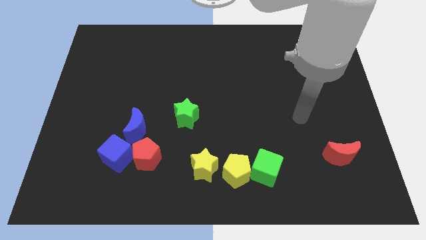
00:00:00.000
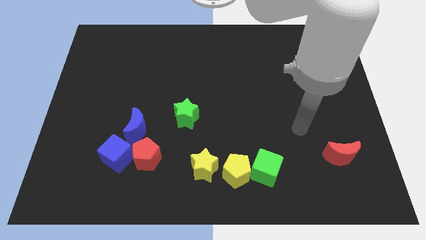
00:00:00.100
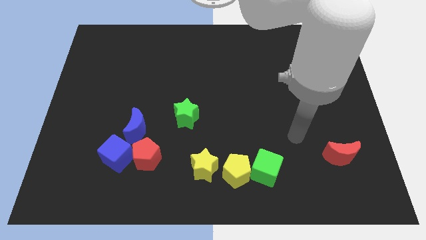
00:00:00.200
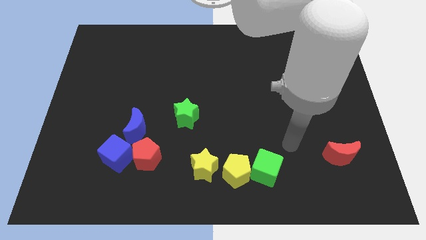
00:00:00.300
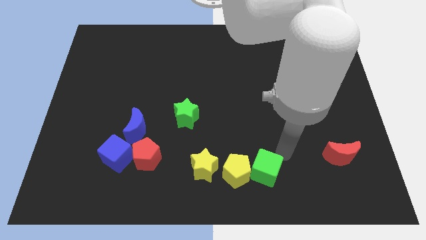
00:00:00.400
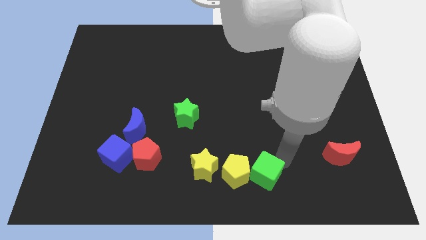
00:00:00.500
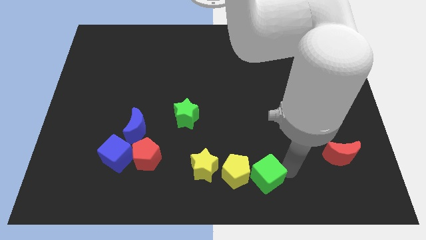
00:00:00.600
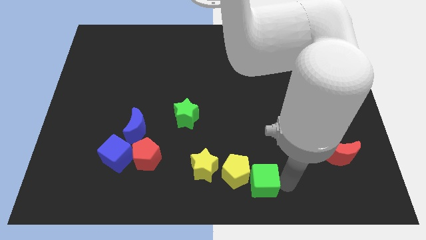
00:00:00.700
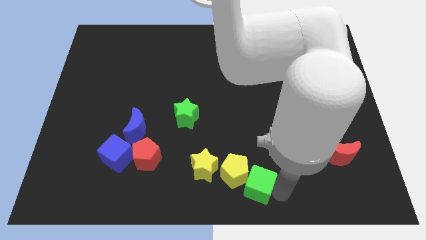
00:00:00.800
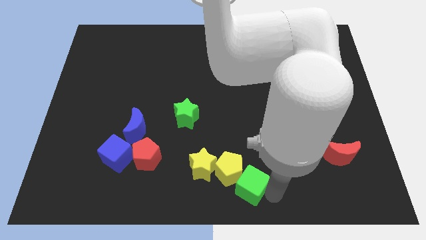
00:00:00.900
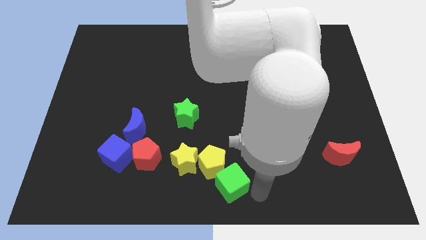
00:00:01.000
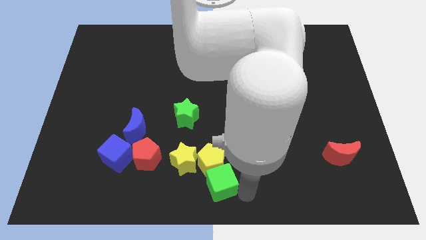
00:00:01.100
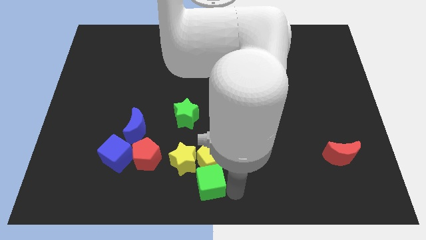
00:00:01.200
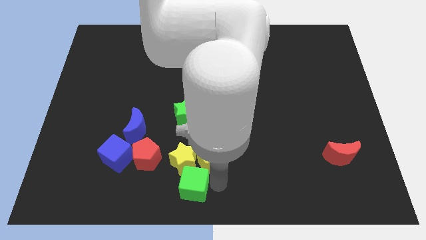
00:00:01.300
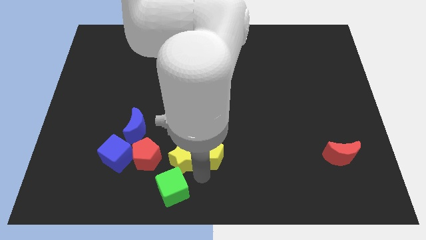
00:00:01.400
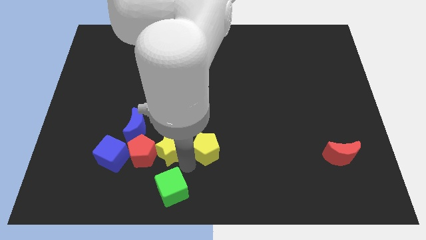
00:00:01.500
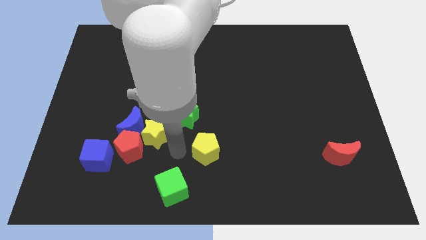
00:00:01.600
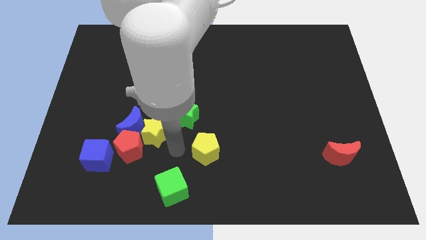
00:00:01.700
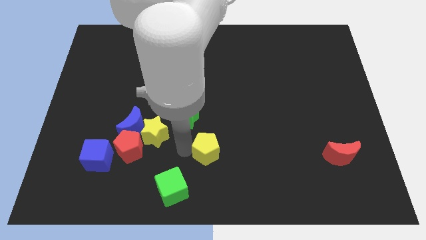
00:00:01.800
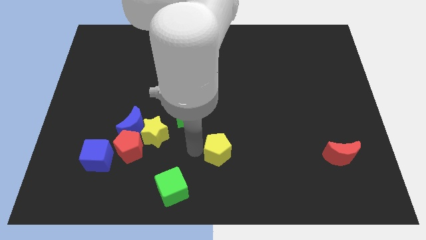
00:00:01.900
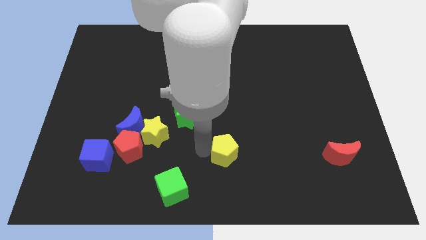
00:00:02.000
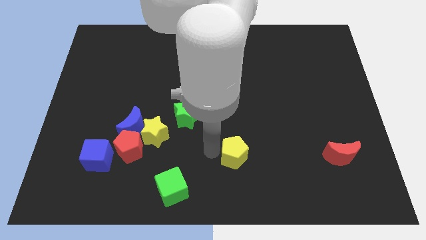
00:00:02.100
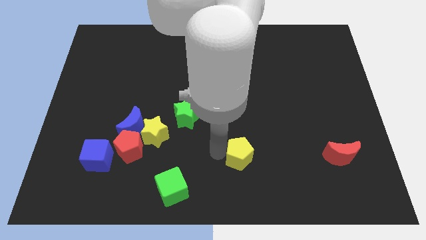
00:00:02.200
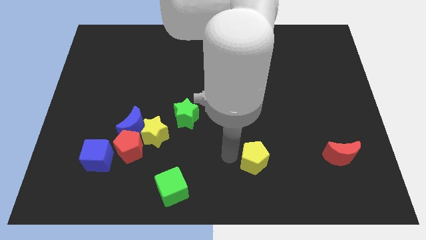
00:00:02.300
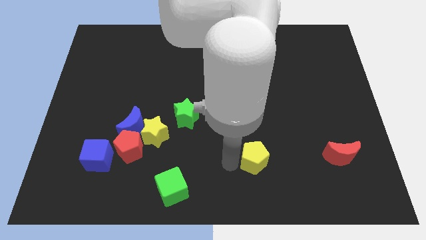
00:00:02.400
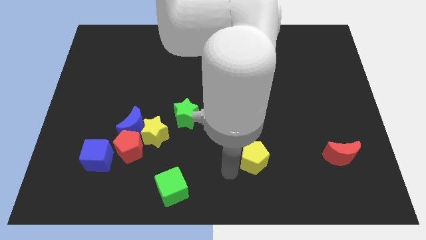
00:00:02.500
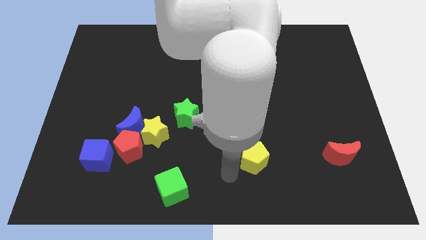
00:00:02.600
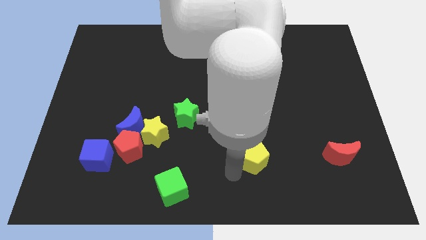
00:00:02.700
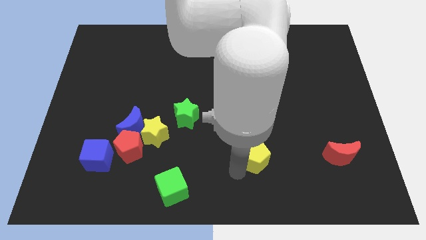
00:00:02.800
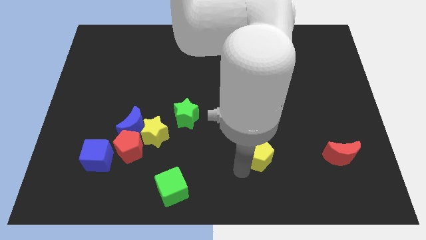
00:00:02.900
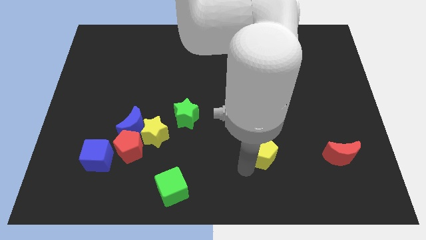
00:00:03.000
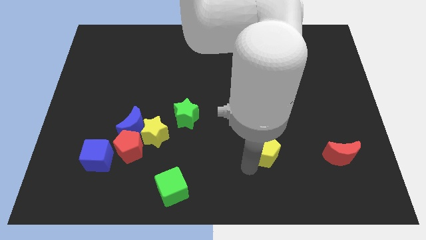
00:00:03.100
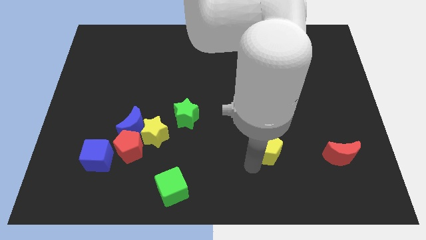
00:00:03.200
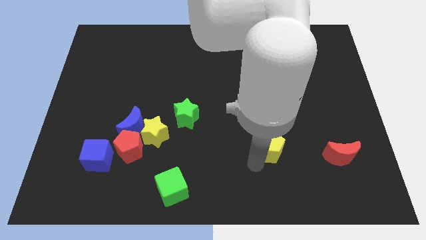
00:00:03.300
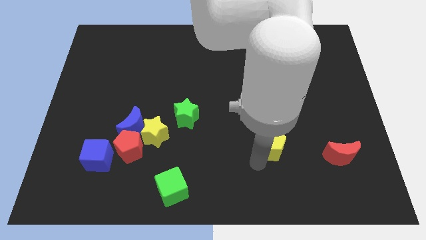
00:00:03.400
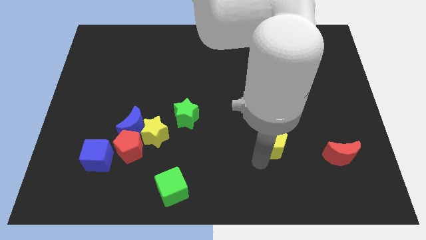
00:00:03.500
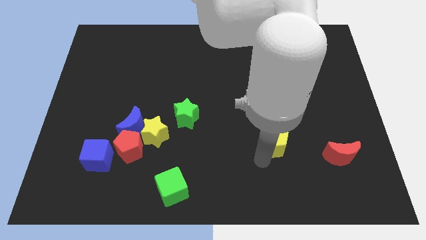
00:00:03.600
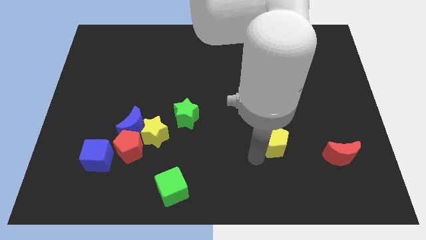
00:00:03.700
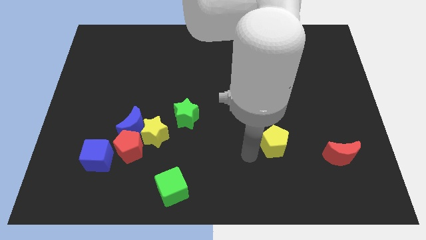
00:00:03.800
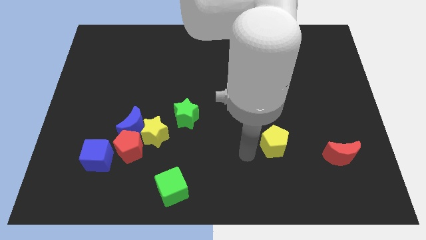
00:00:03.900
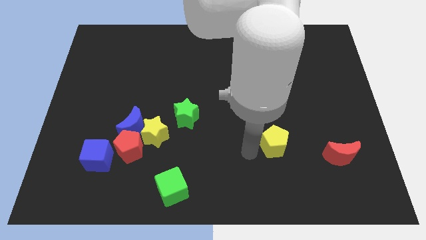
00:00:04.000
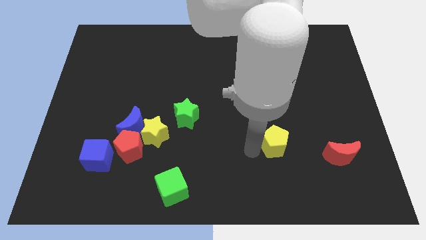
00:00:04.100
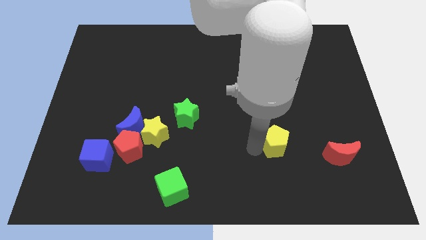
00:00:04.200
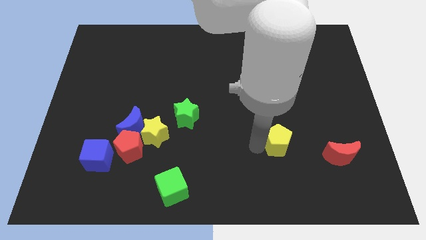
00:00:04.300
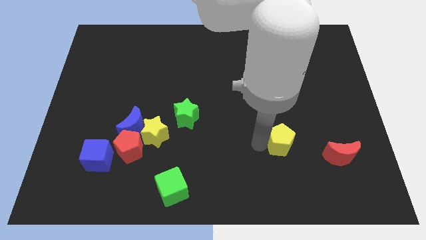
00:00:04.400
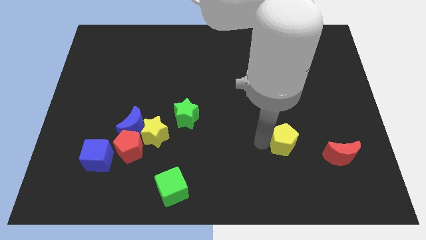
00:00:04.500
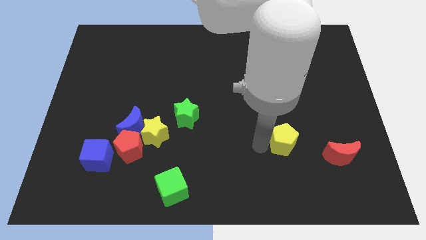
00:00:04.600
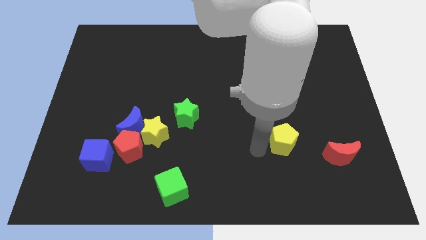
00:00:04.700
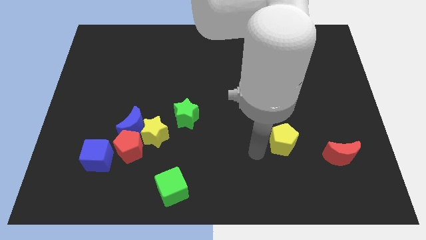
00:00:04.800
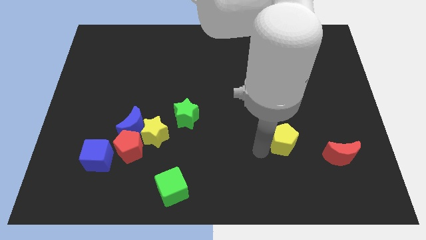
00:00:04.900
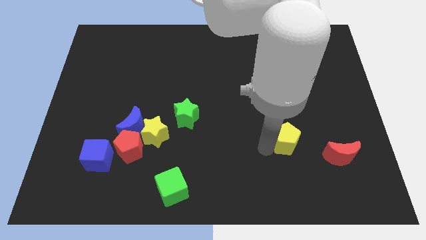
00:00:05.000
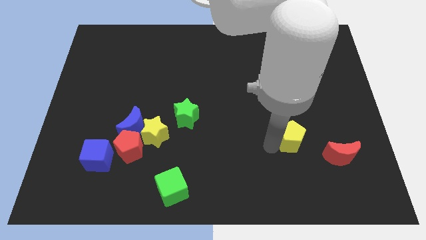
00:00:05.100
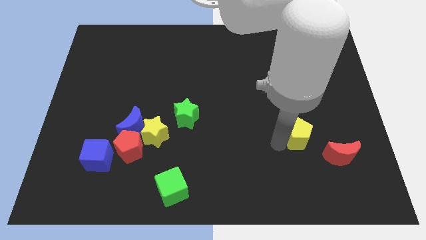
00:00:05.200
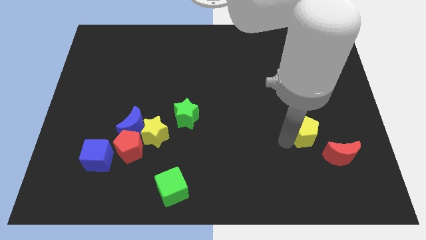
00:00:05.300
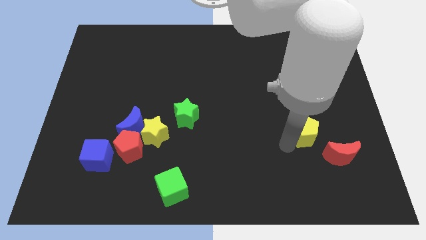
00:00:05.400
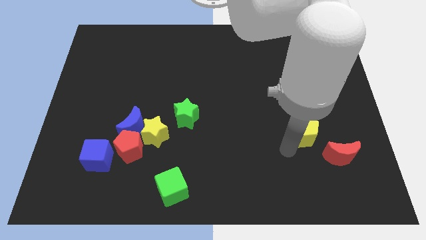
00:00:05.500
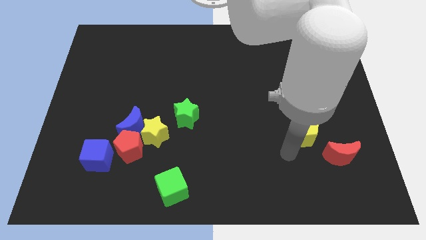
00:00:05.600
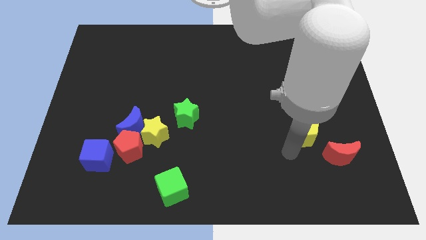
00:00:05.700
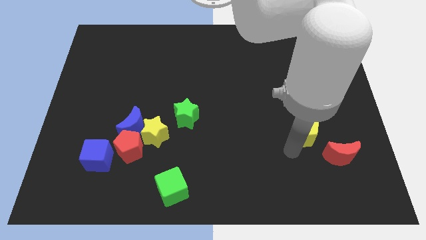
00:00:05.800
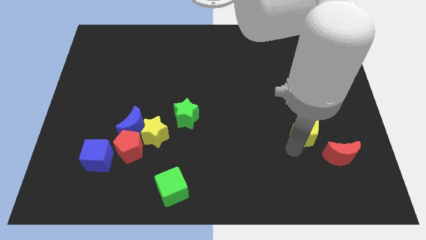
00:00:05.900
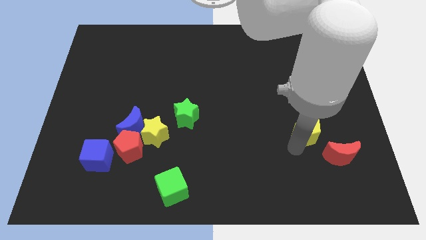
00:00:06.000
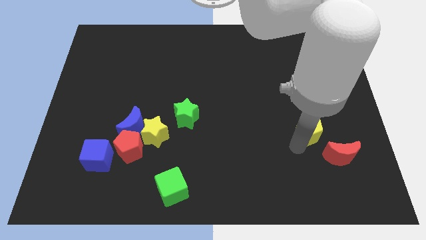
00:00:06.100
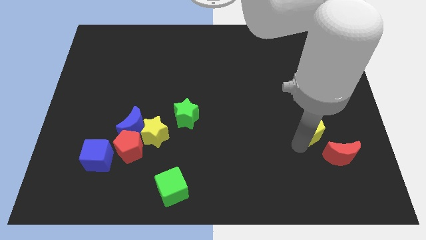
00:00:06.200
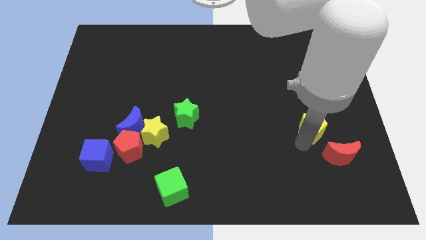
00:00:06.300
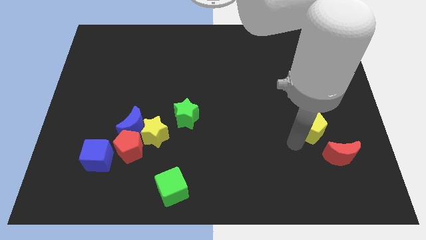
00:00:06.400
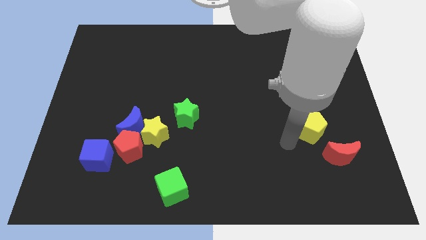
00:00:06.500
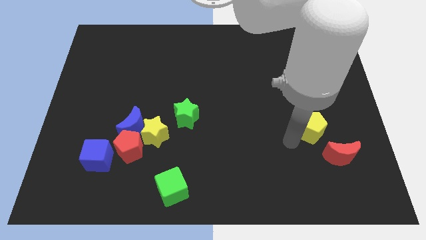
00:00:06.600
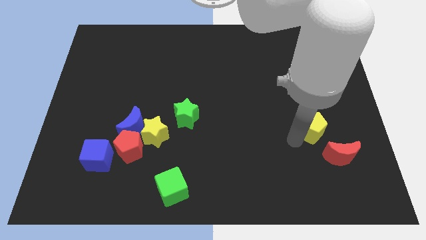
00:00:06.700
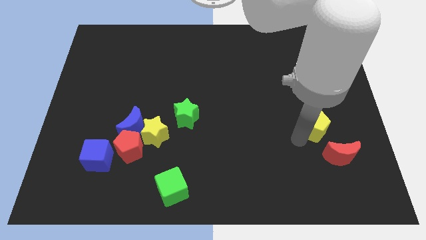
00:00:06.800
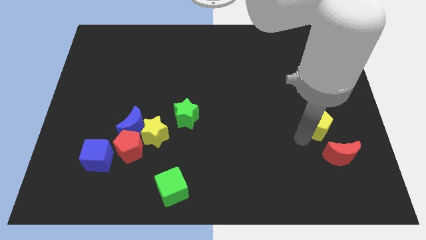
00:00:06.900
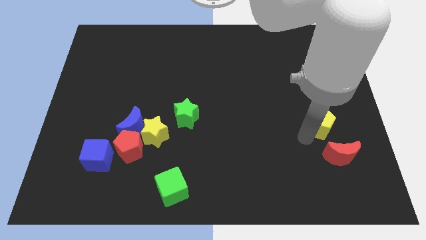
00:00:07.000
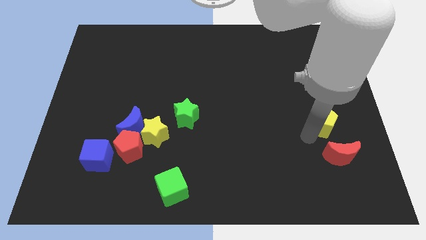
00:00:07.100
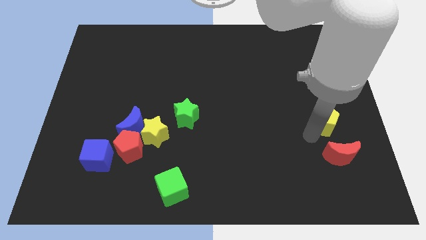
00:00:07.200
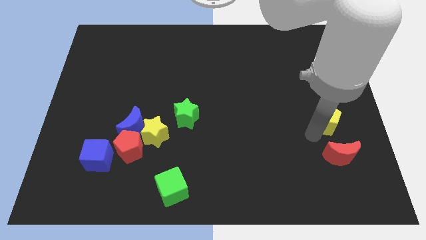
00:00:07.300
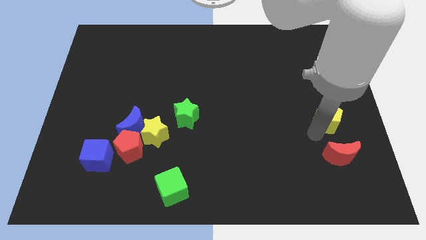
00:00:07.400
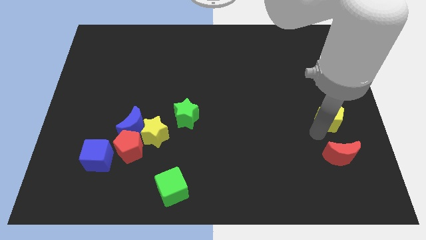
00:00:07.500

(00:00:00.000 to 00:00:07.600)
put the yellow pentagon to the right side of the board
